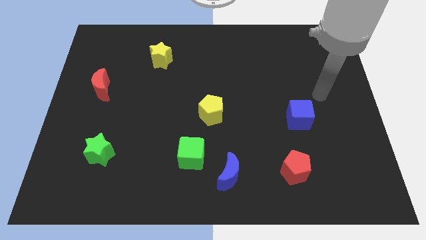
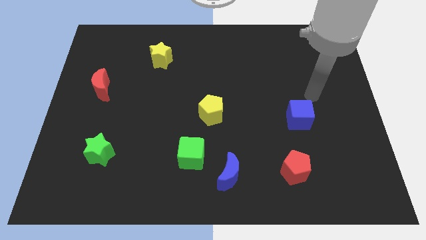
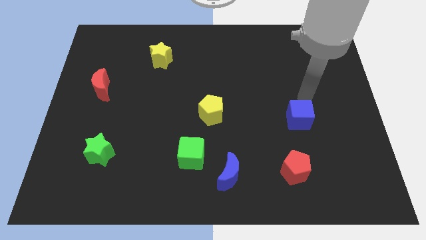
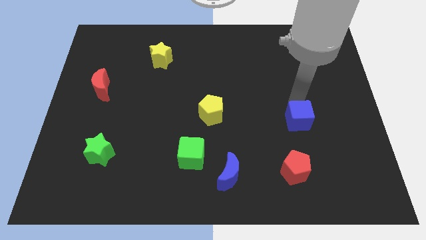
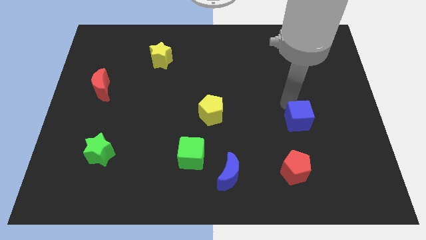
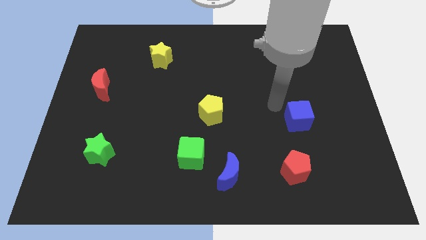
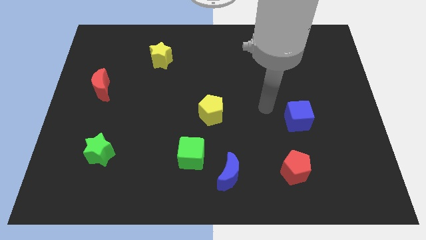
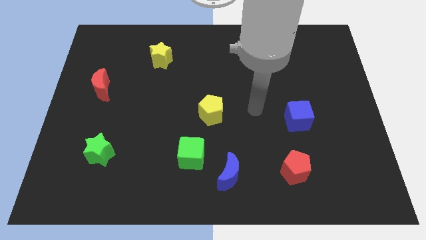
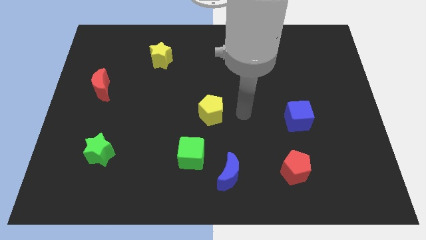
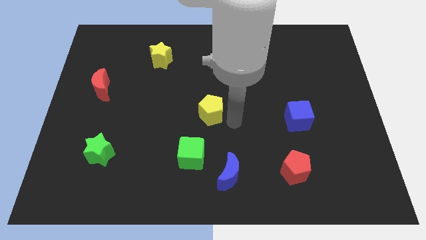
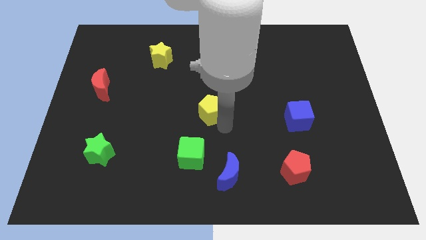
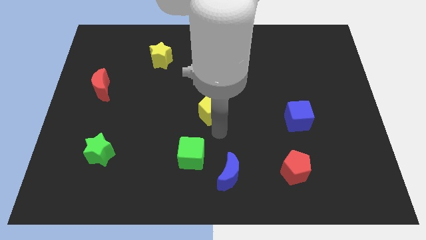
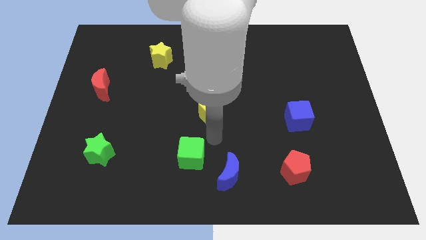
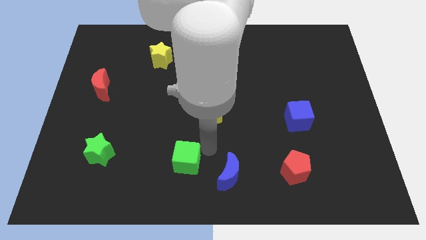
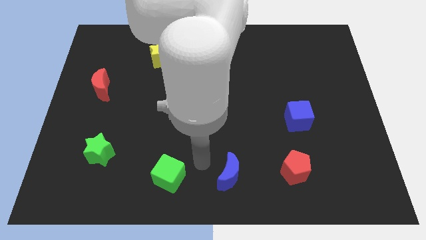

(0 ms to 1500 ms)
move the blue moon away from the green cube

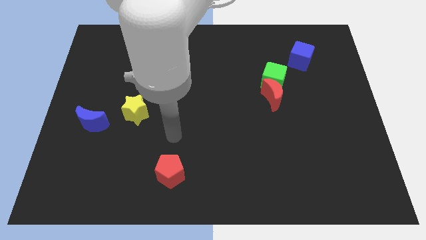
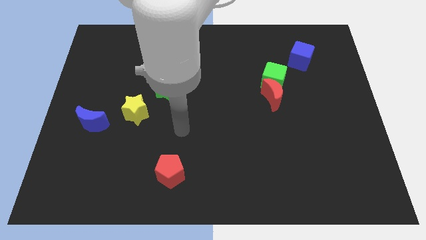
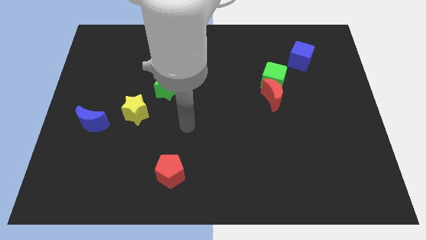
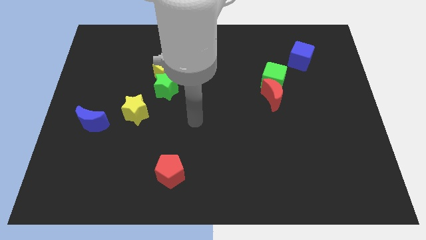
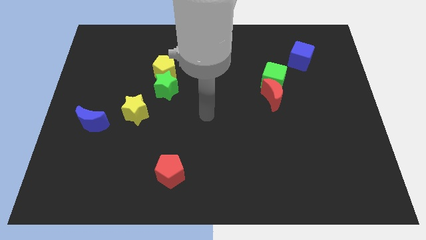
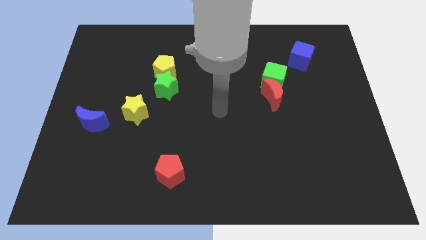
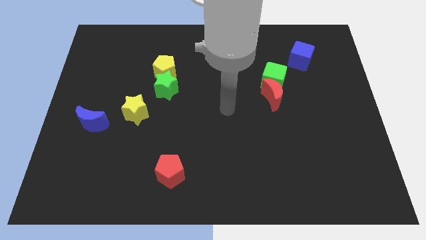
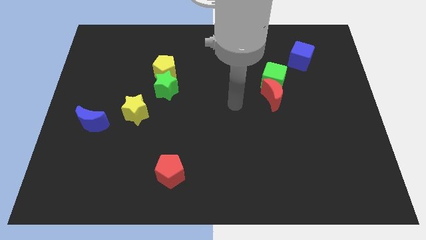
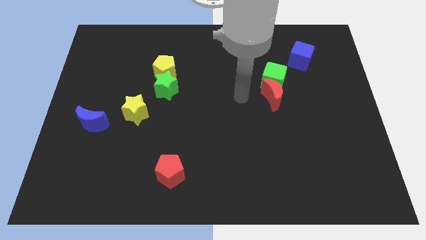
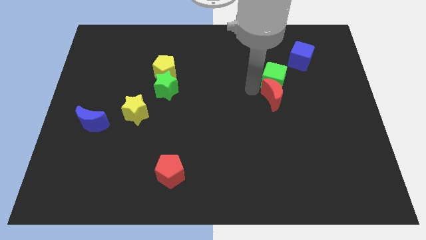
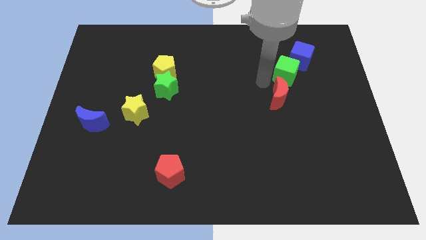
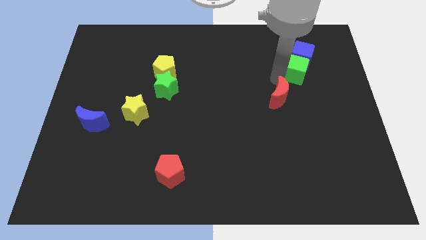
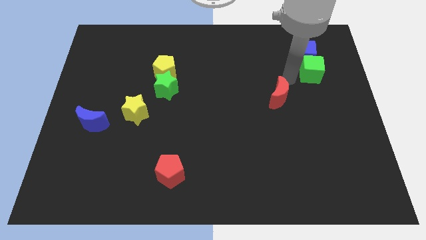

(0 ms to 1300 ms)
pull the red moon apart from the green cube

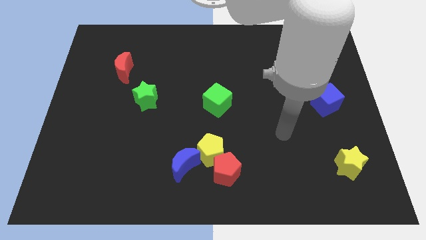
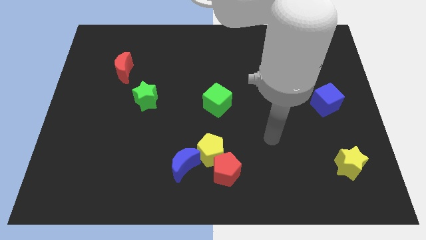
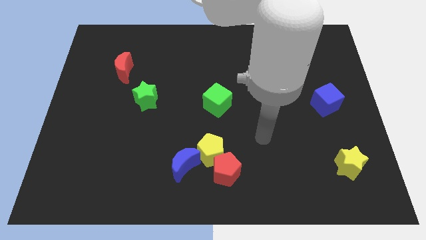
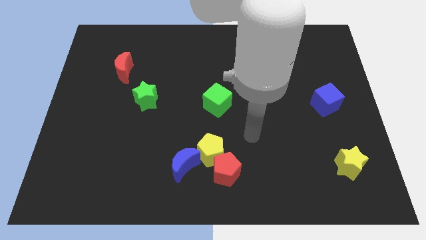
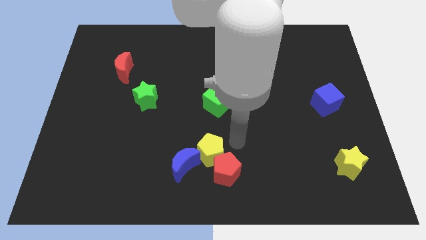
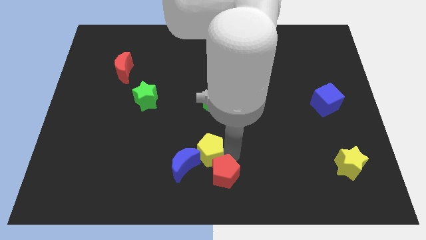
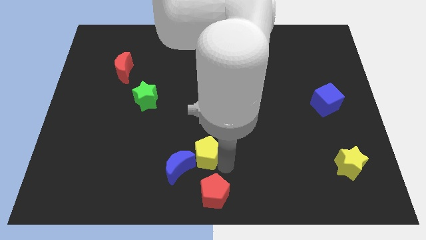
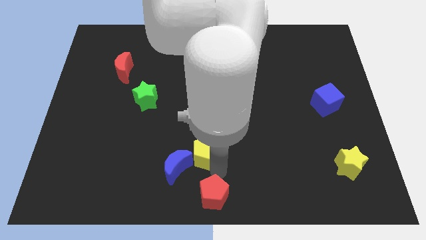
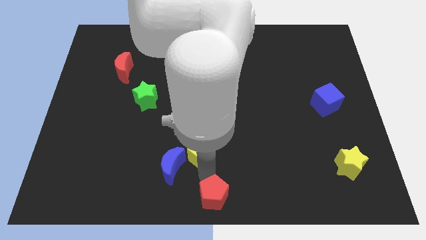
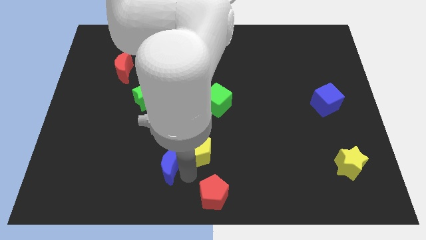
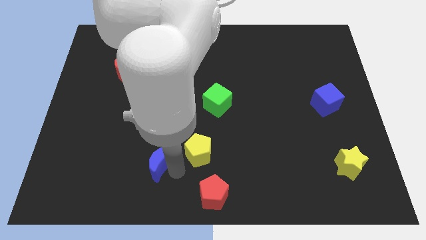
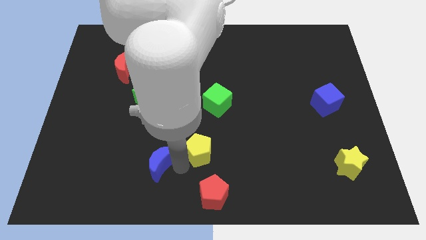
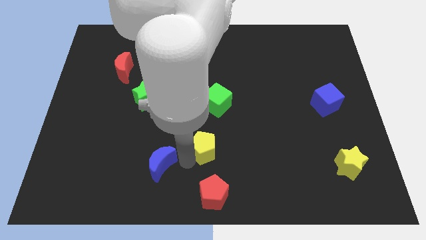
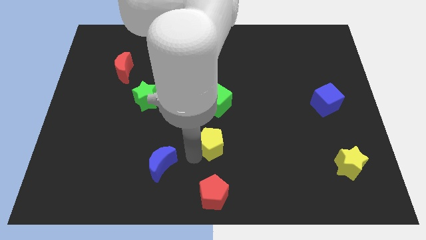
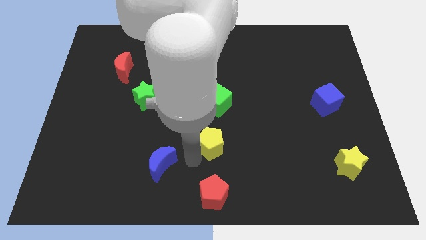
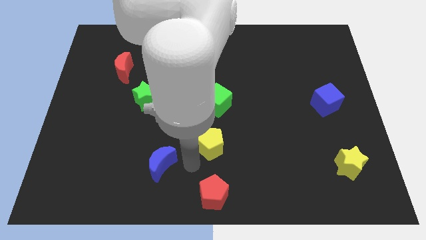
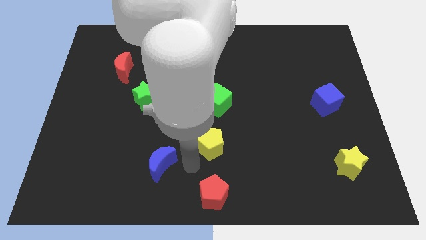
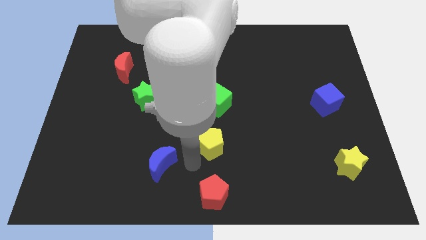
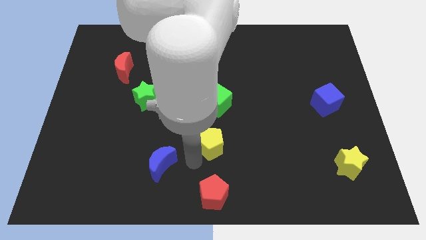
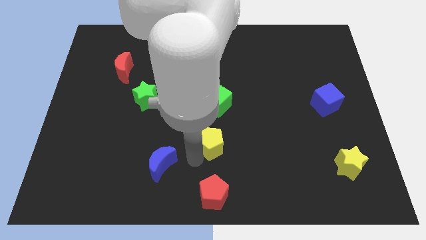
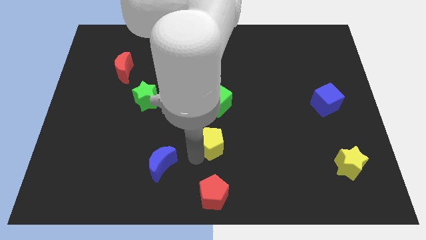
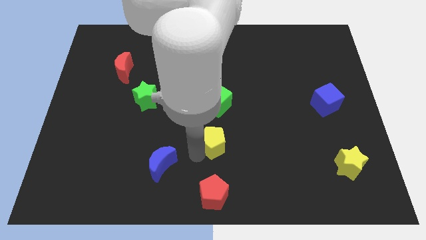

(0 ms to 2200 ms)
pull the yellow pentagon apart from the red pentagon and blue moon

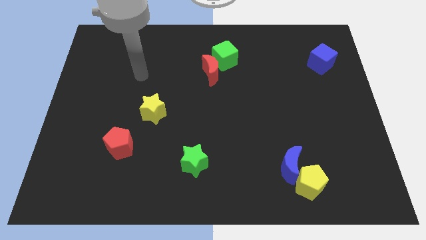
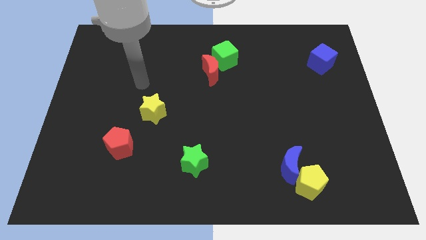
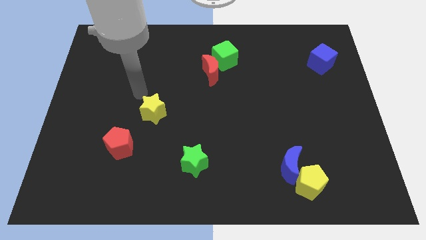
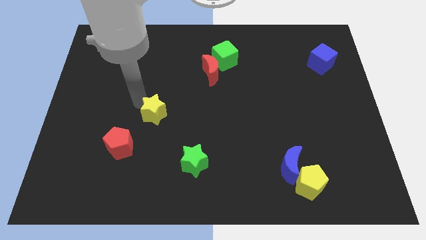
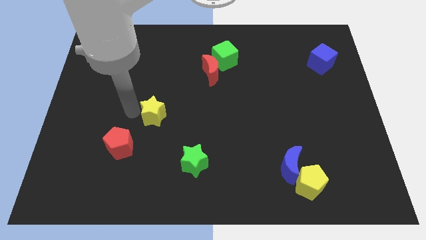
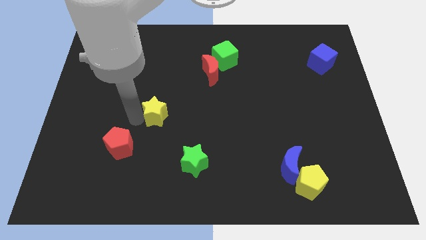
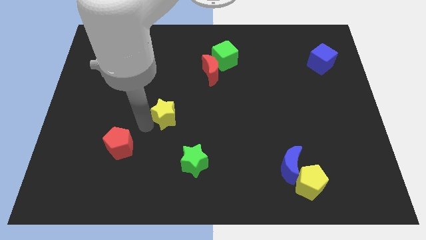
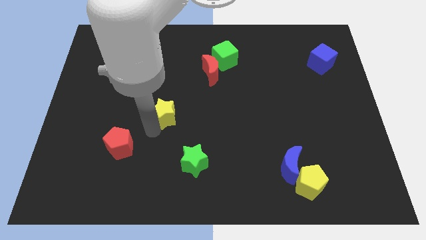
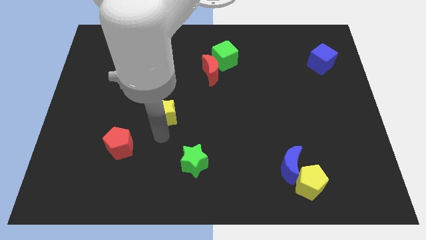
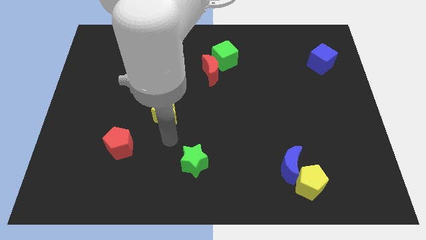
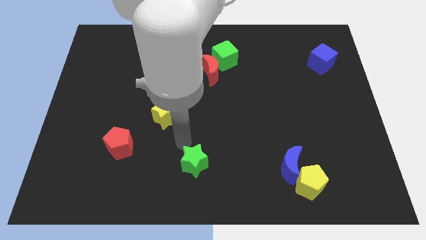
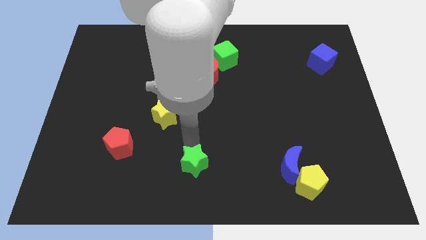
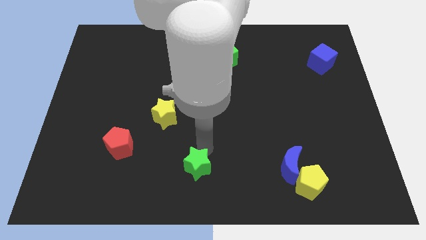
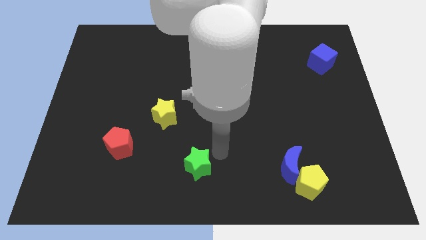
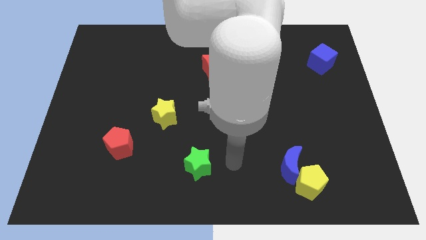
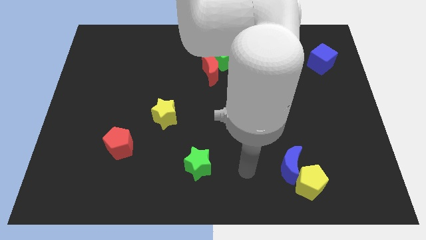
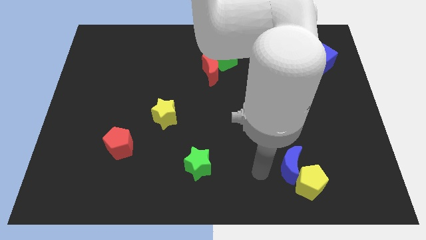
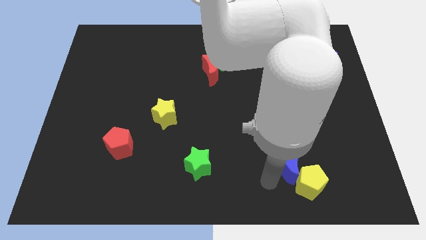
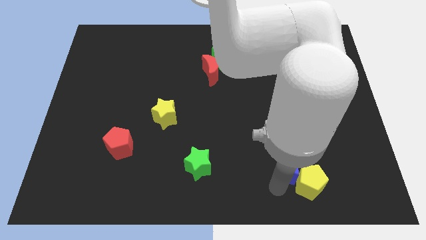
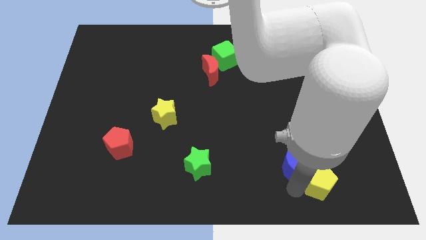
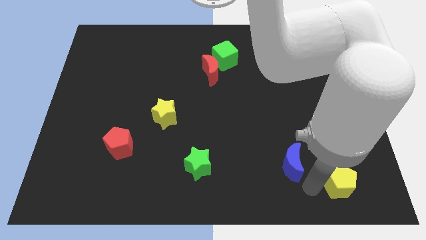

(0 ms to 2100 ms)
move the blue moon away from the yellow pentagon

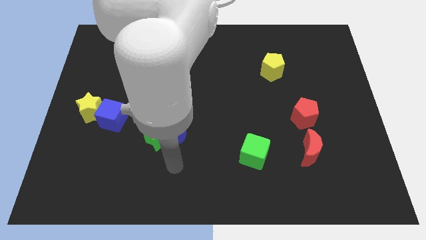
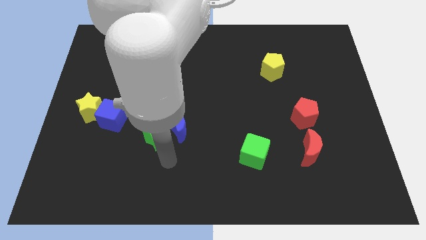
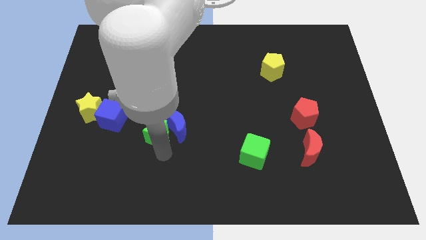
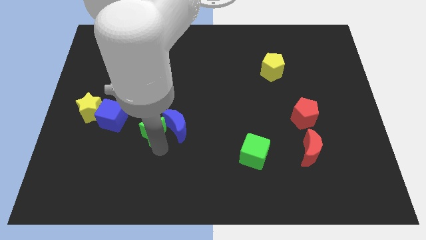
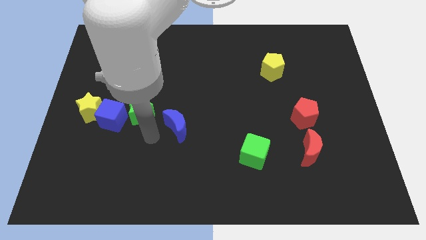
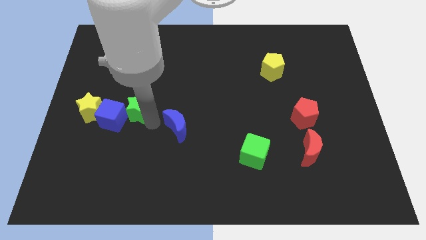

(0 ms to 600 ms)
separate the blue moon from the green star

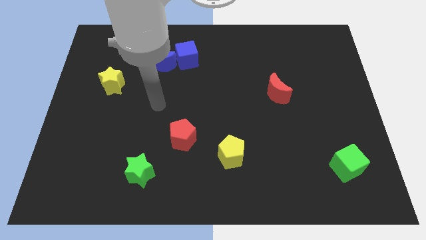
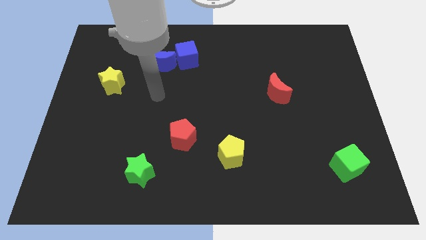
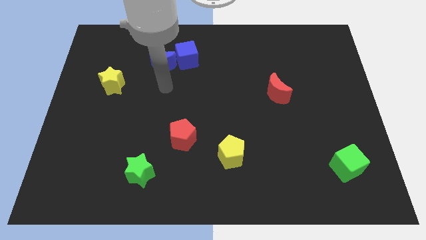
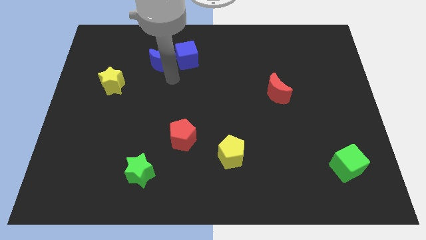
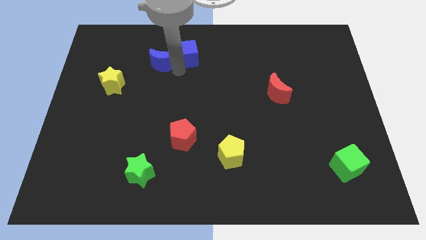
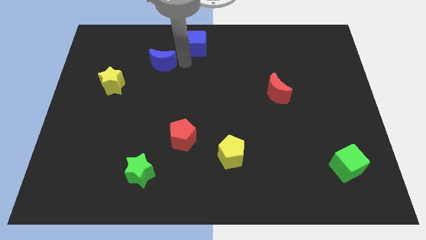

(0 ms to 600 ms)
move the blue moon away from the blue cube

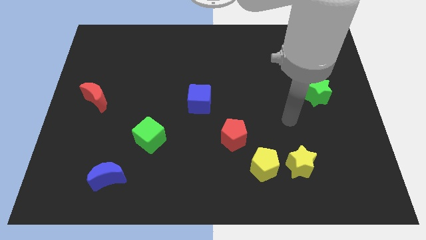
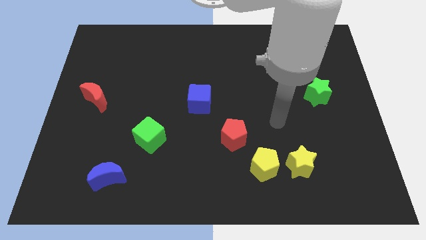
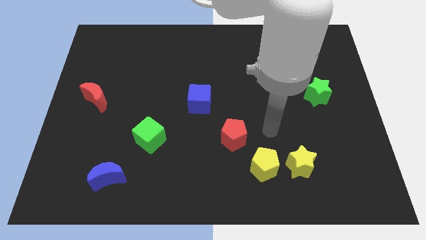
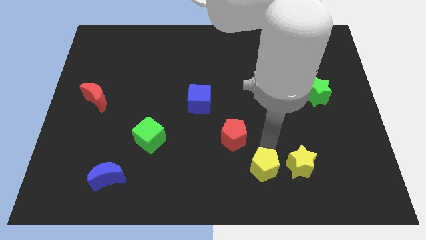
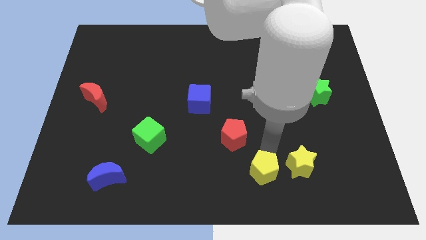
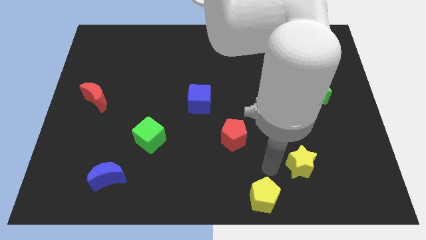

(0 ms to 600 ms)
separate the yellow star from the yellow pentagon

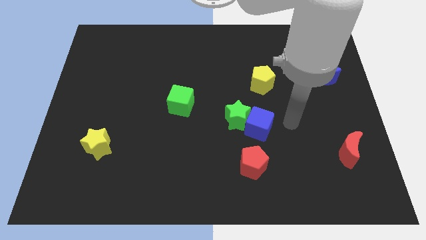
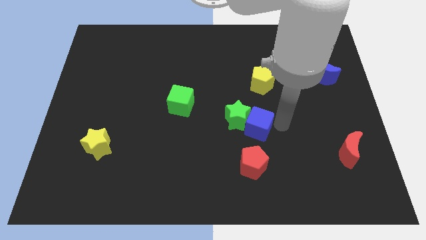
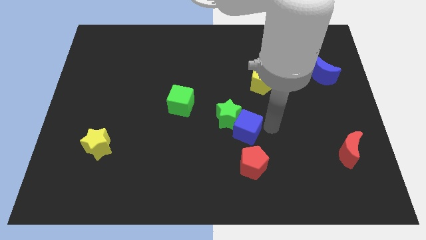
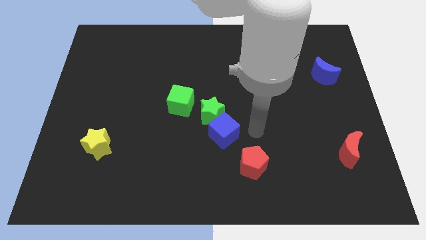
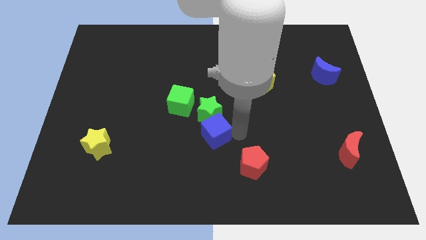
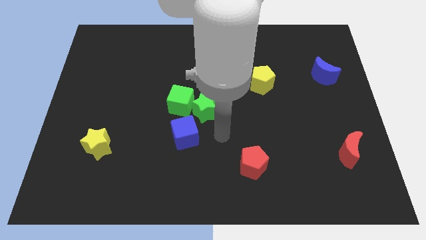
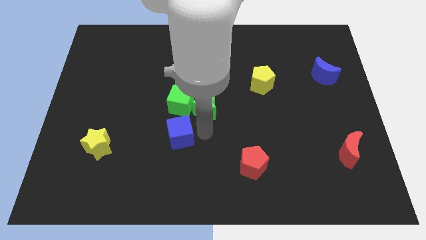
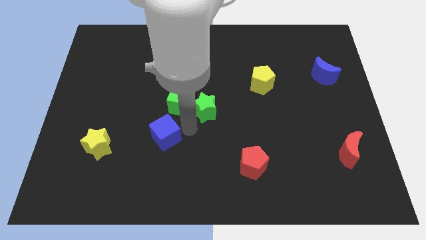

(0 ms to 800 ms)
pull the green star apart from the blue cube
